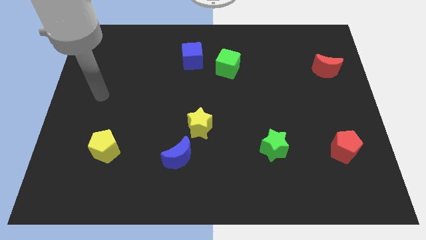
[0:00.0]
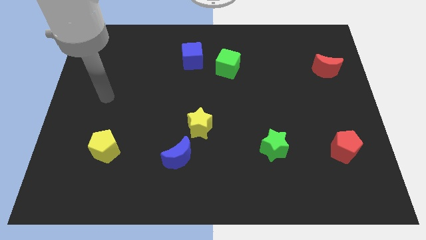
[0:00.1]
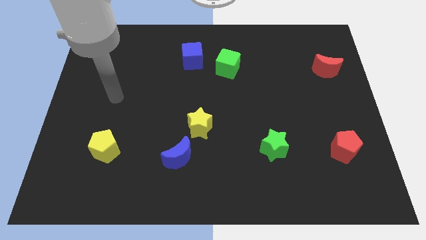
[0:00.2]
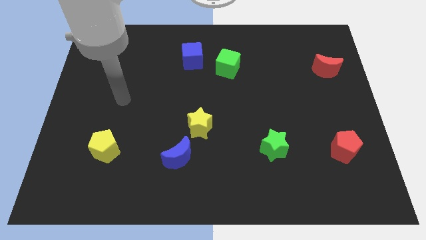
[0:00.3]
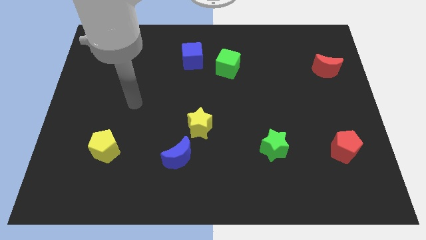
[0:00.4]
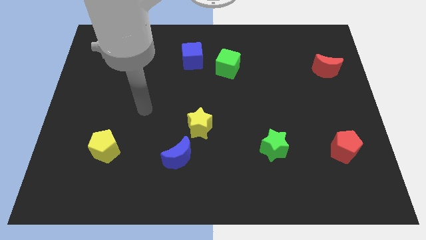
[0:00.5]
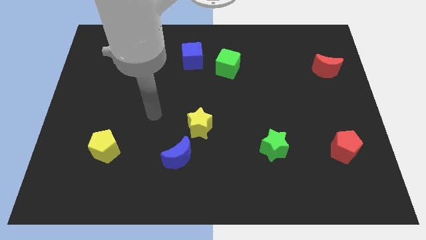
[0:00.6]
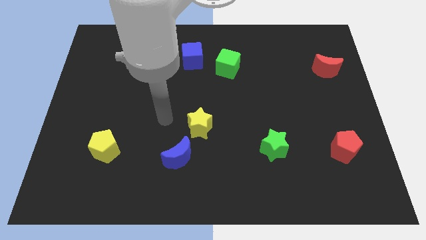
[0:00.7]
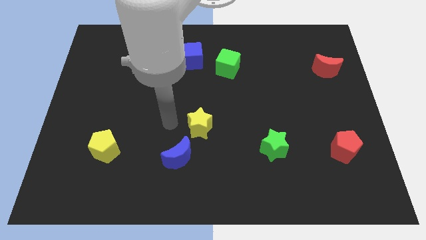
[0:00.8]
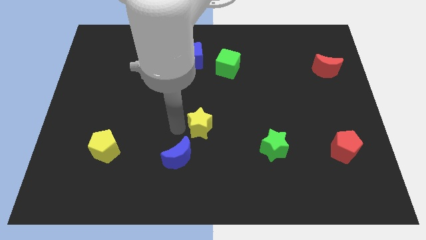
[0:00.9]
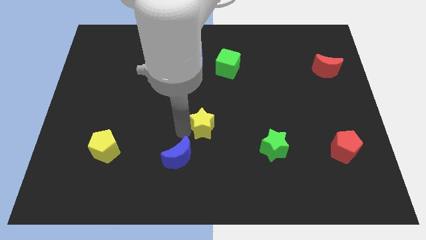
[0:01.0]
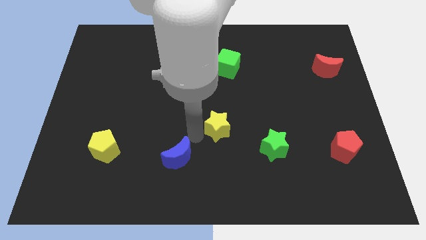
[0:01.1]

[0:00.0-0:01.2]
separate the blue moon from the yellow star

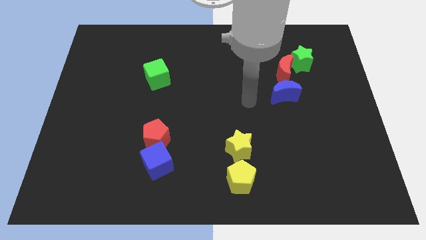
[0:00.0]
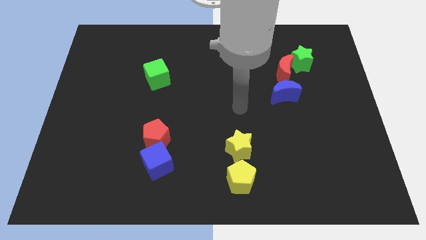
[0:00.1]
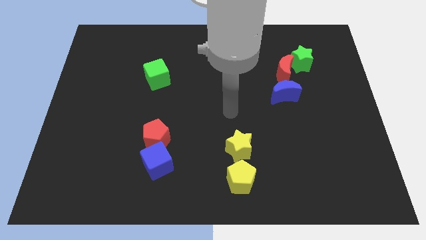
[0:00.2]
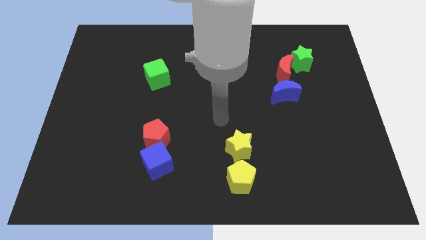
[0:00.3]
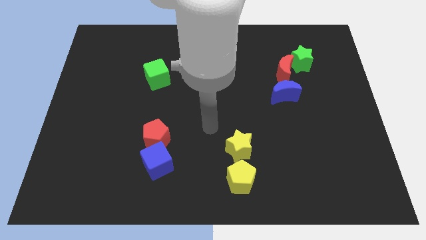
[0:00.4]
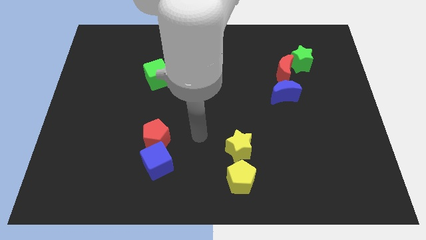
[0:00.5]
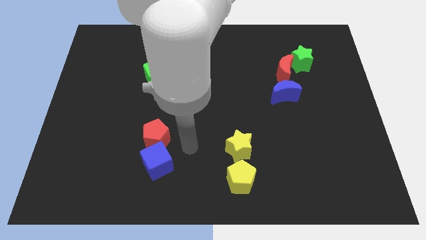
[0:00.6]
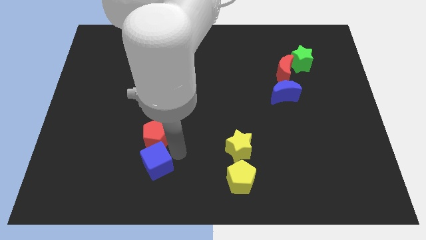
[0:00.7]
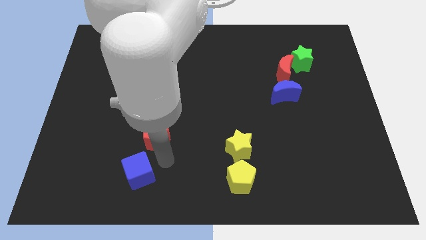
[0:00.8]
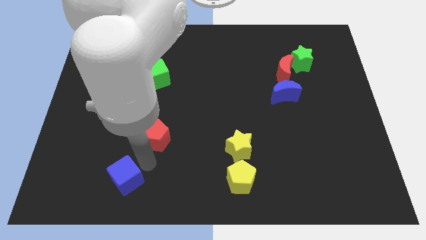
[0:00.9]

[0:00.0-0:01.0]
pull the red pentagon apart from the blue cube

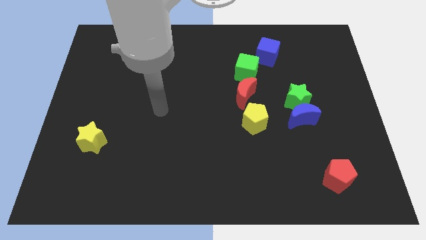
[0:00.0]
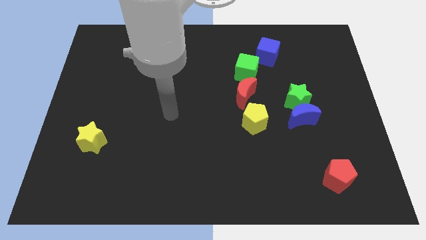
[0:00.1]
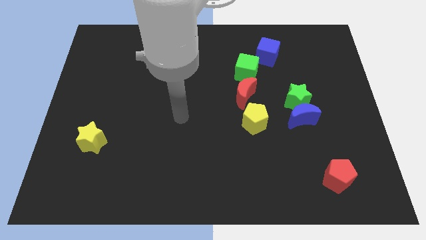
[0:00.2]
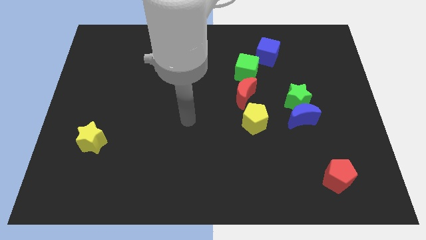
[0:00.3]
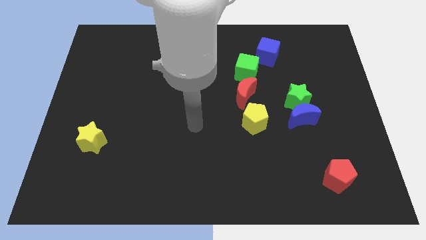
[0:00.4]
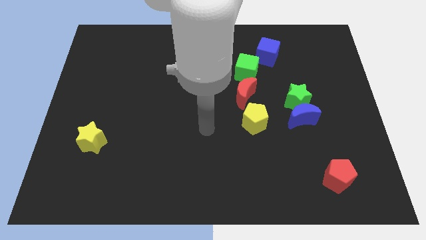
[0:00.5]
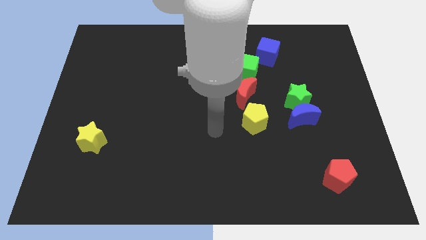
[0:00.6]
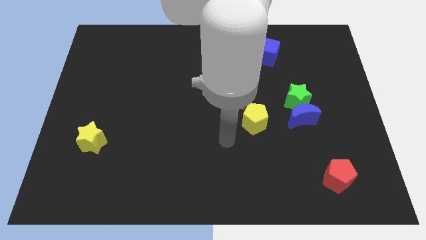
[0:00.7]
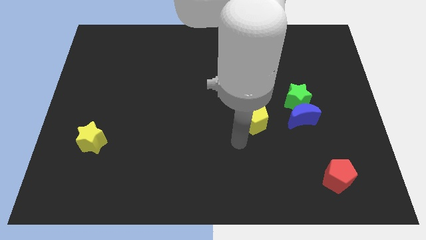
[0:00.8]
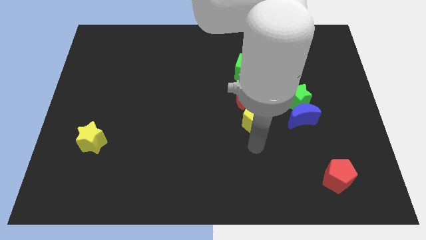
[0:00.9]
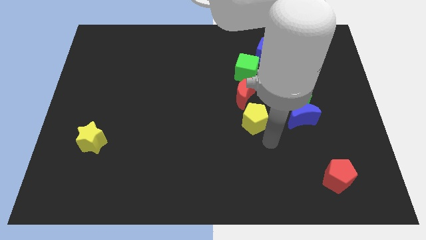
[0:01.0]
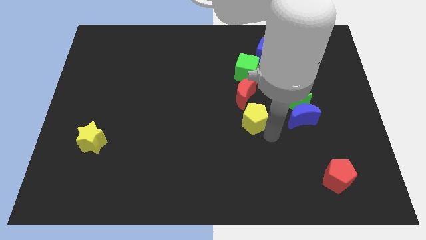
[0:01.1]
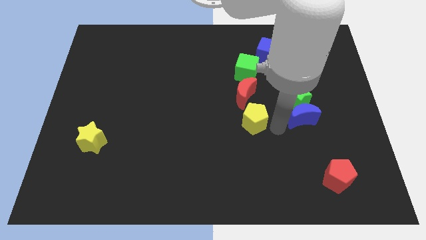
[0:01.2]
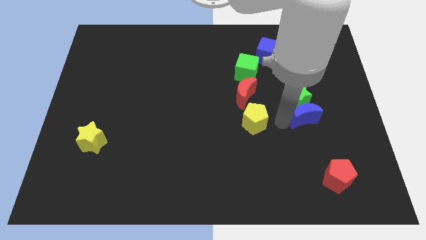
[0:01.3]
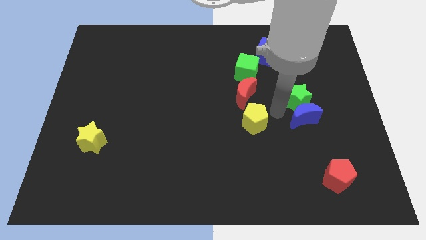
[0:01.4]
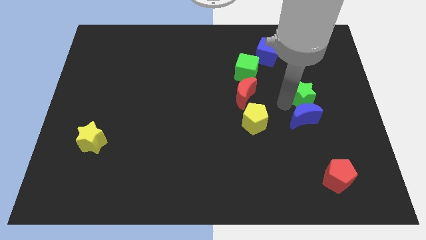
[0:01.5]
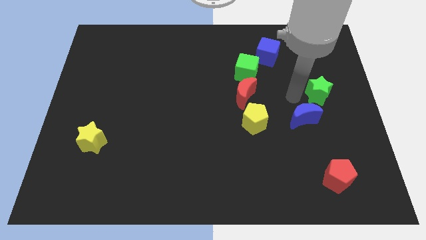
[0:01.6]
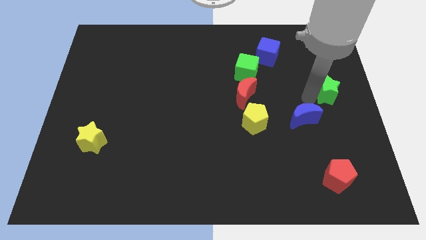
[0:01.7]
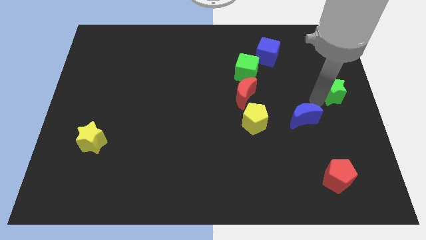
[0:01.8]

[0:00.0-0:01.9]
move the blue moon away from the green star

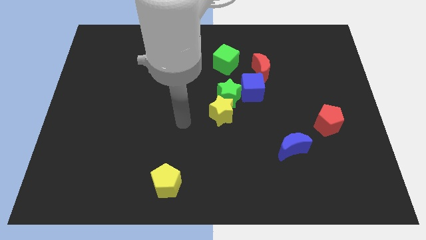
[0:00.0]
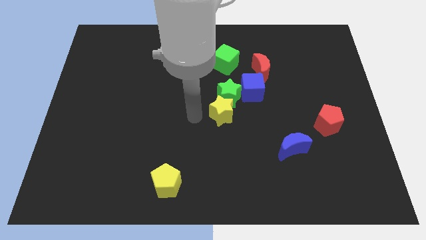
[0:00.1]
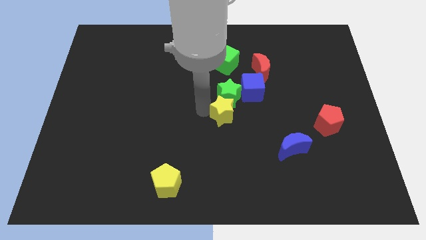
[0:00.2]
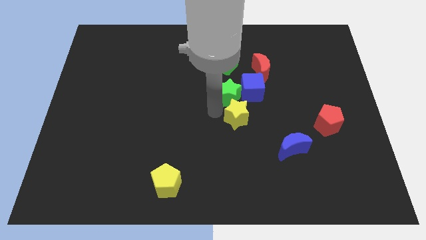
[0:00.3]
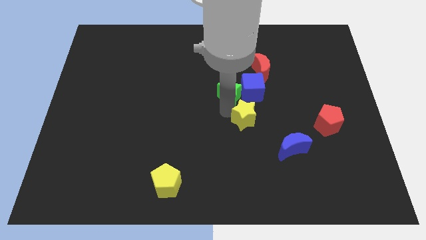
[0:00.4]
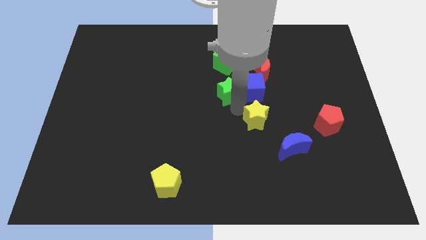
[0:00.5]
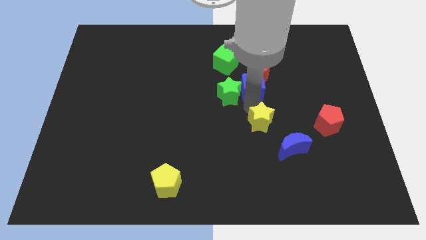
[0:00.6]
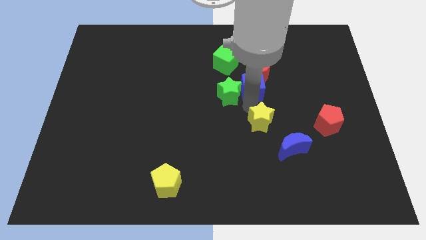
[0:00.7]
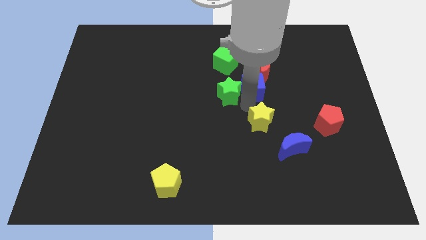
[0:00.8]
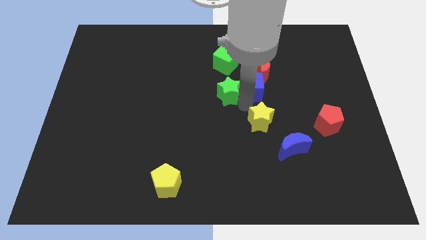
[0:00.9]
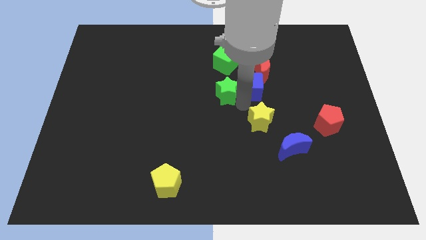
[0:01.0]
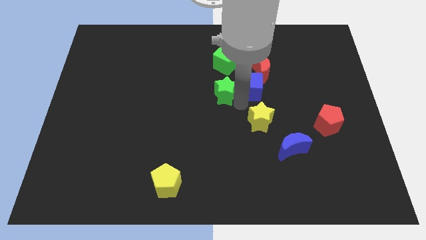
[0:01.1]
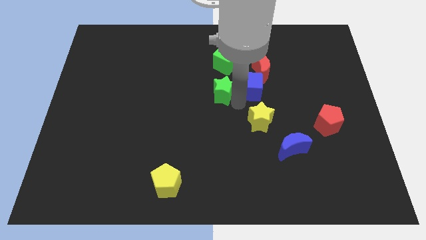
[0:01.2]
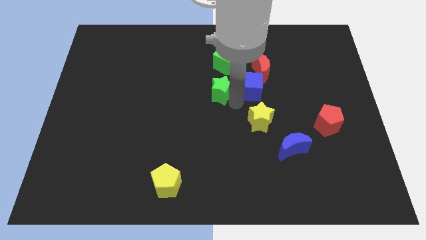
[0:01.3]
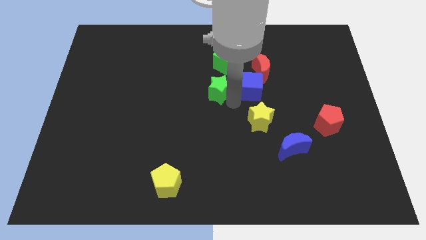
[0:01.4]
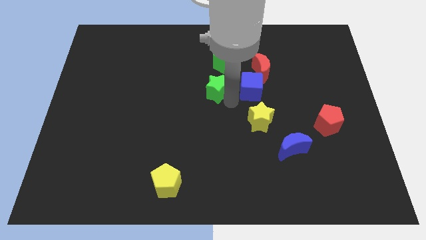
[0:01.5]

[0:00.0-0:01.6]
pull the green star apart from the yellow star and blue cube

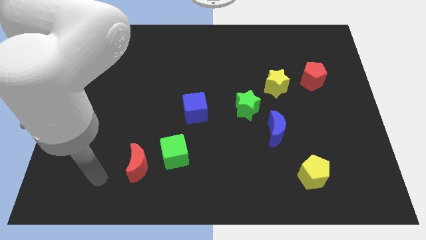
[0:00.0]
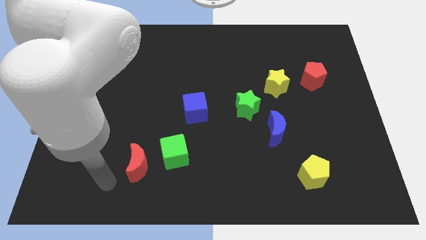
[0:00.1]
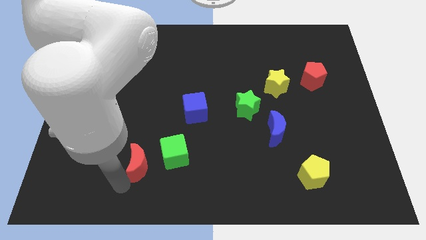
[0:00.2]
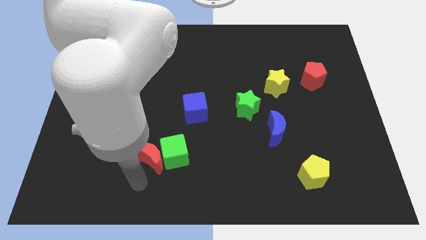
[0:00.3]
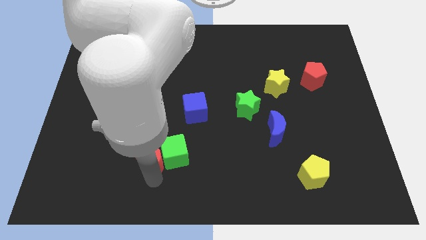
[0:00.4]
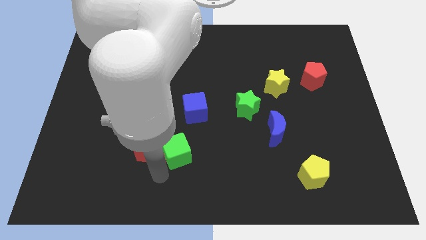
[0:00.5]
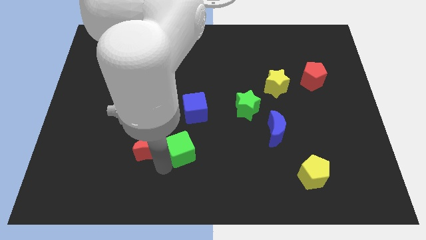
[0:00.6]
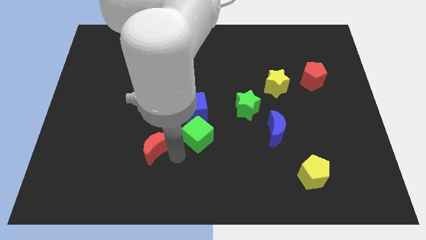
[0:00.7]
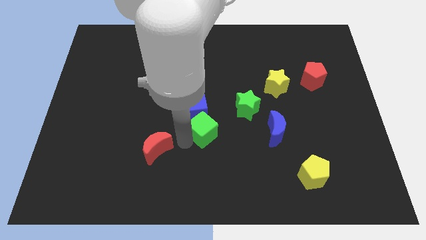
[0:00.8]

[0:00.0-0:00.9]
pull the red moon apart from the green cube

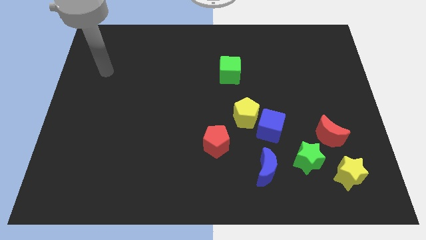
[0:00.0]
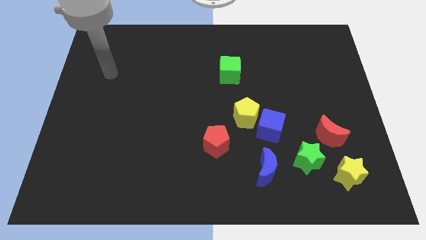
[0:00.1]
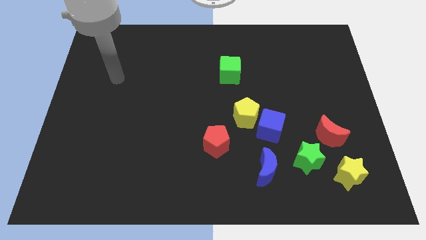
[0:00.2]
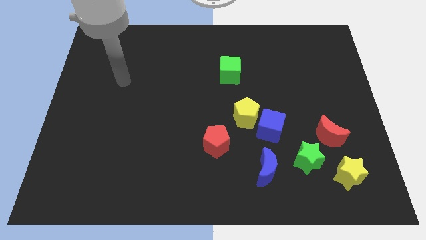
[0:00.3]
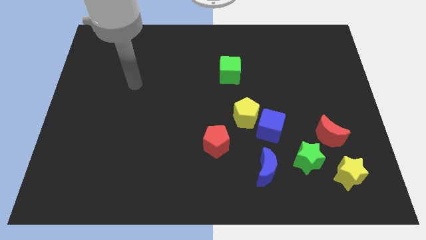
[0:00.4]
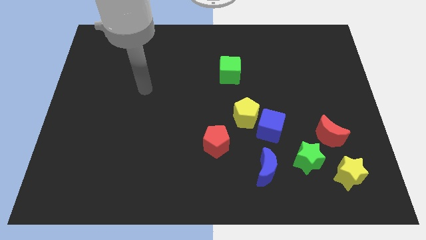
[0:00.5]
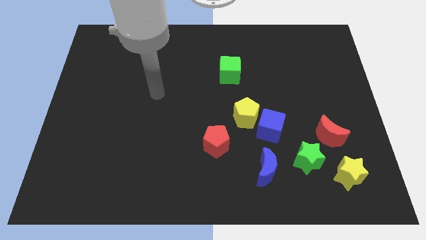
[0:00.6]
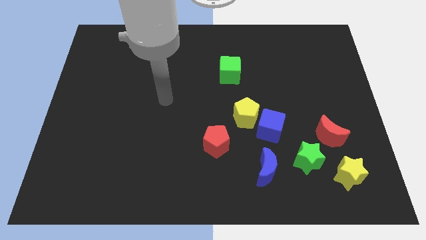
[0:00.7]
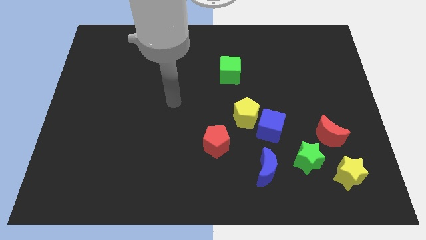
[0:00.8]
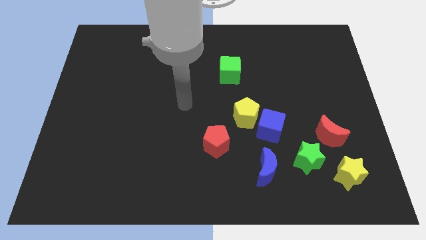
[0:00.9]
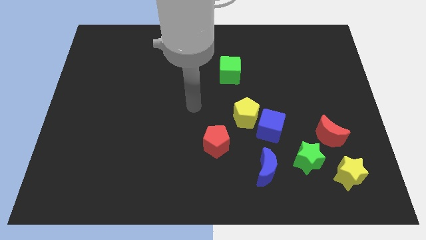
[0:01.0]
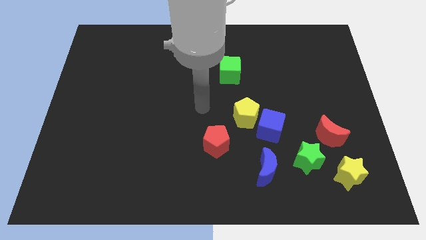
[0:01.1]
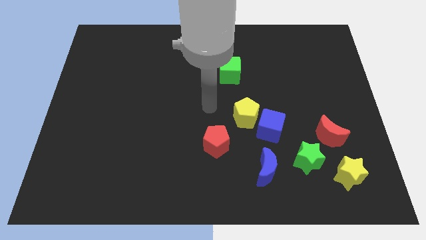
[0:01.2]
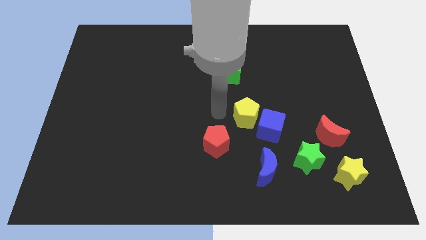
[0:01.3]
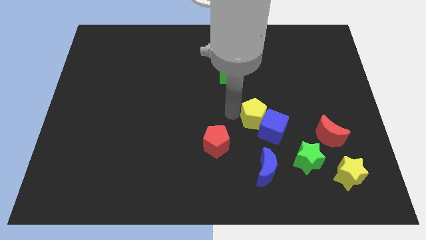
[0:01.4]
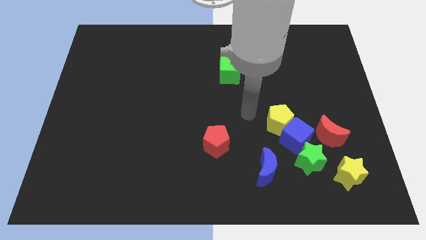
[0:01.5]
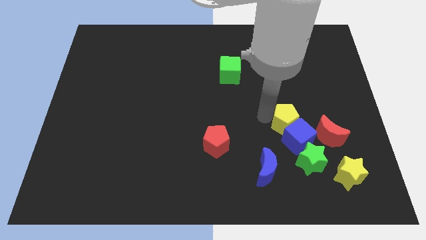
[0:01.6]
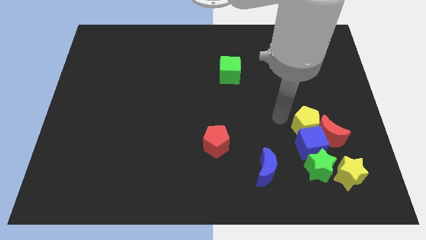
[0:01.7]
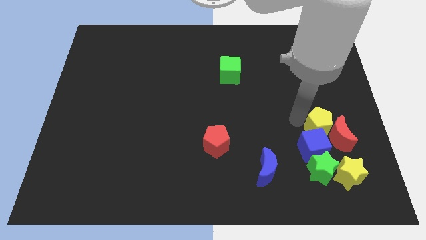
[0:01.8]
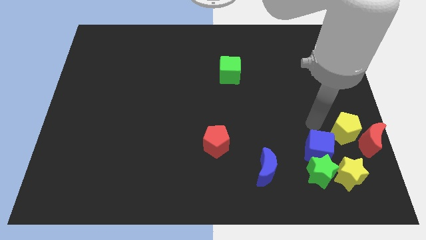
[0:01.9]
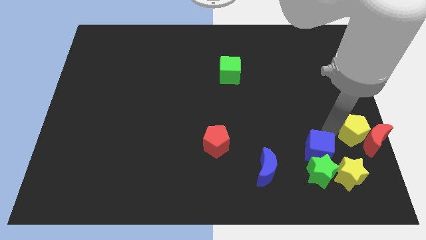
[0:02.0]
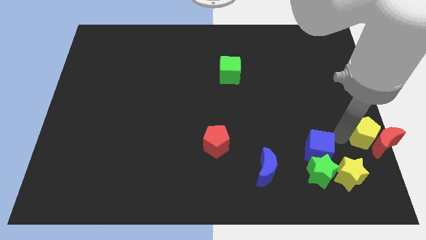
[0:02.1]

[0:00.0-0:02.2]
separate the blue cube from the yellow pentagon

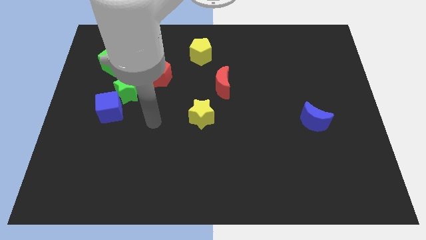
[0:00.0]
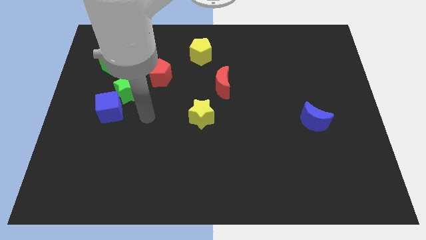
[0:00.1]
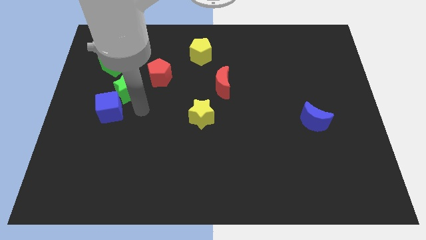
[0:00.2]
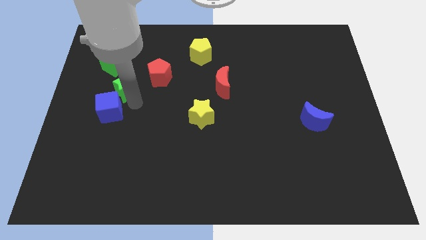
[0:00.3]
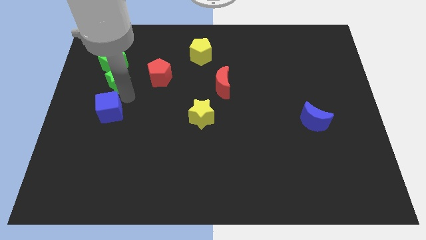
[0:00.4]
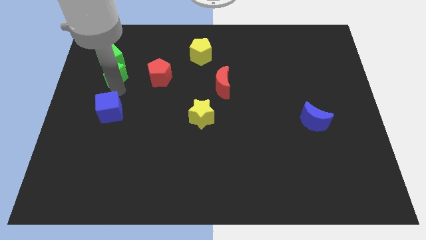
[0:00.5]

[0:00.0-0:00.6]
move the blue cube away from the green star
